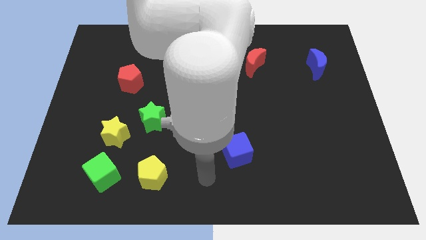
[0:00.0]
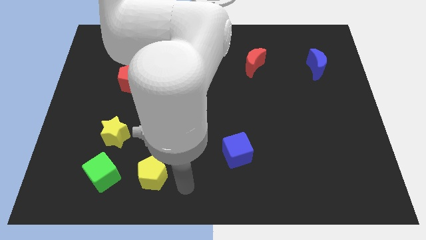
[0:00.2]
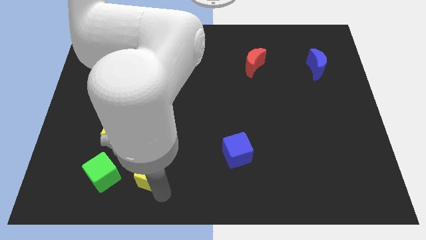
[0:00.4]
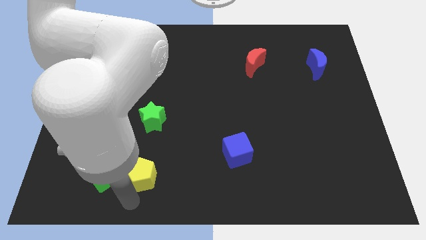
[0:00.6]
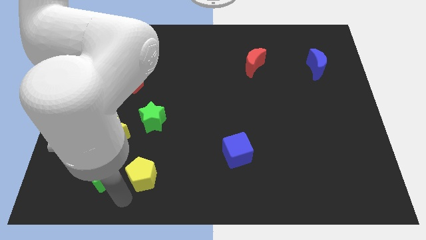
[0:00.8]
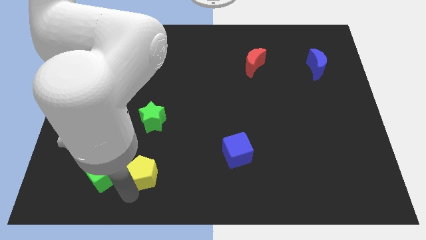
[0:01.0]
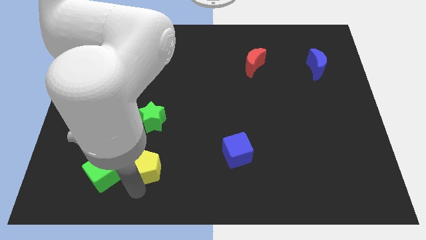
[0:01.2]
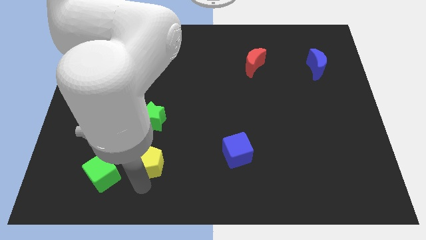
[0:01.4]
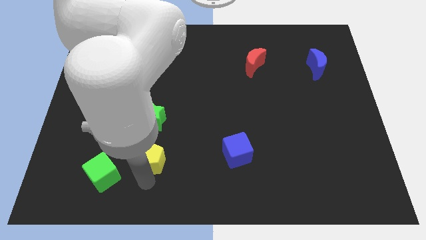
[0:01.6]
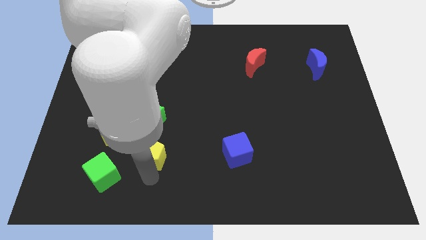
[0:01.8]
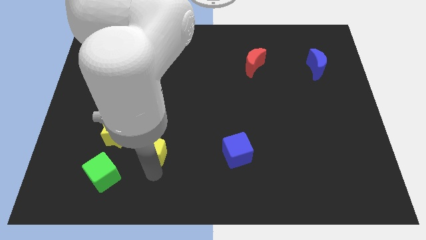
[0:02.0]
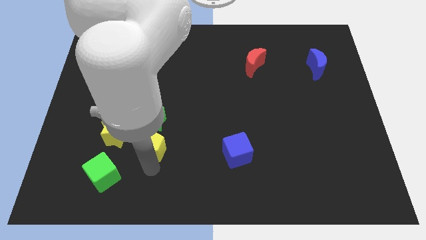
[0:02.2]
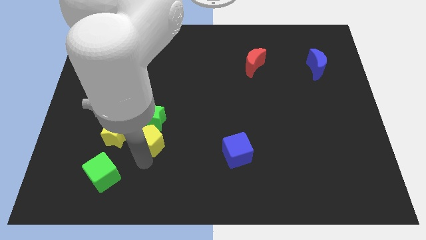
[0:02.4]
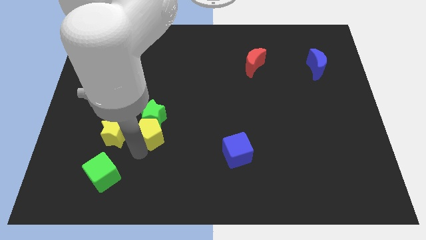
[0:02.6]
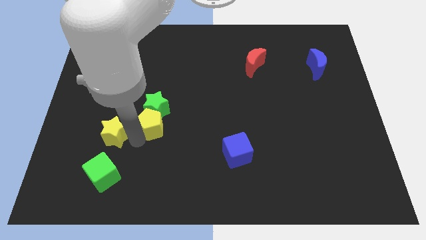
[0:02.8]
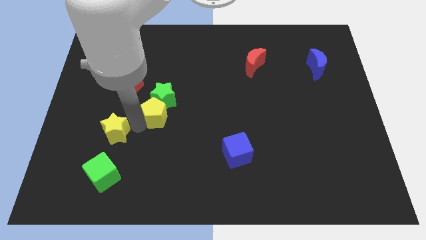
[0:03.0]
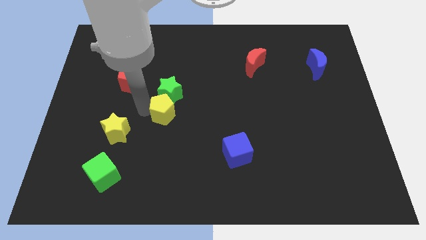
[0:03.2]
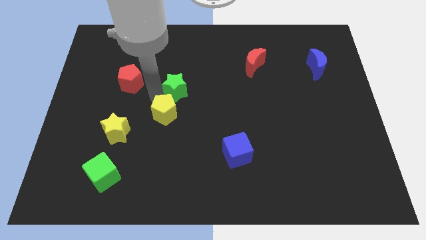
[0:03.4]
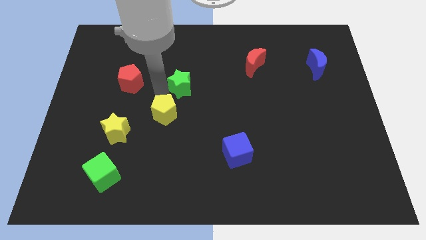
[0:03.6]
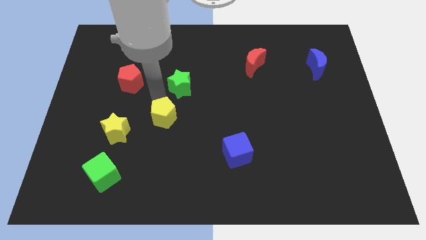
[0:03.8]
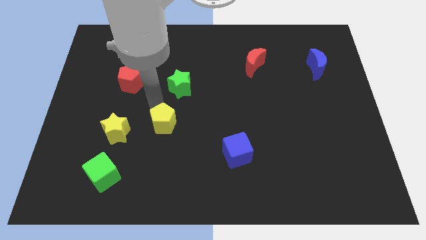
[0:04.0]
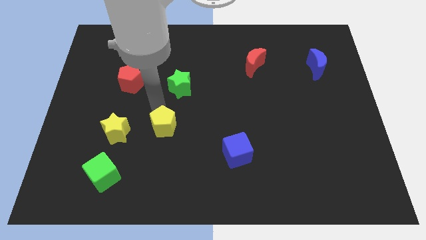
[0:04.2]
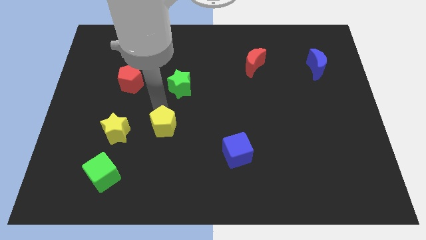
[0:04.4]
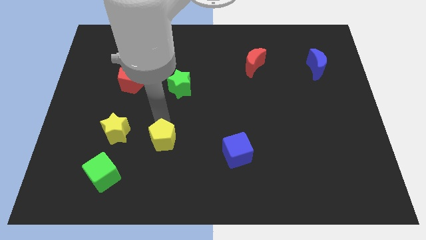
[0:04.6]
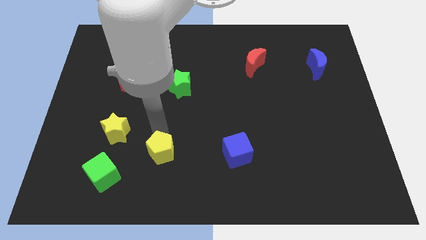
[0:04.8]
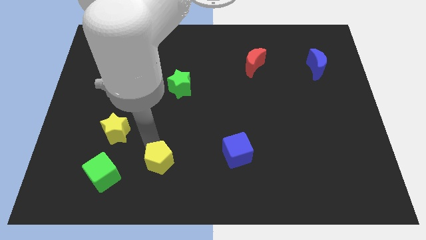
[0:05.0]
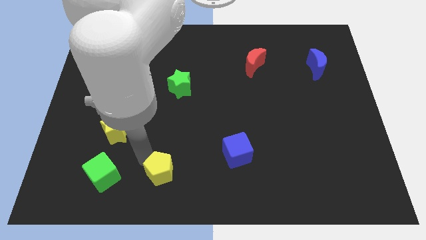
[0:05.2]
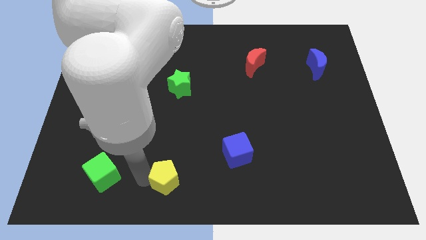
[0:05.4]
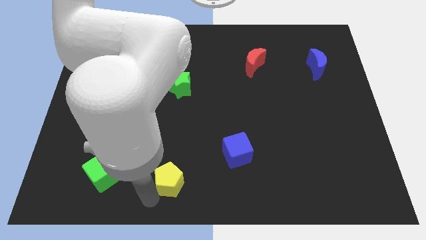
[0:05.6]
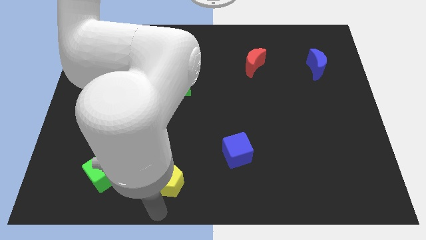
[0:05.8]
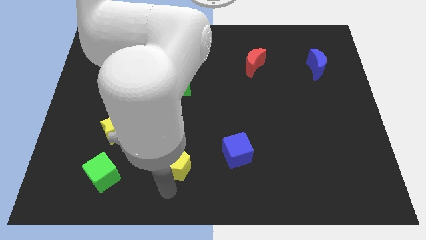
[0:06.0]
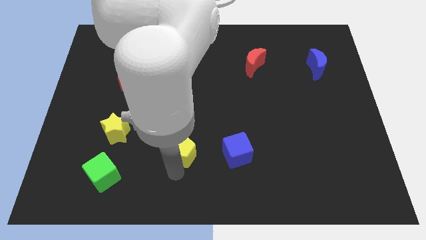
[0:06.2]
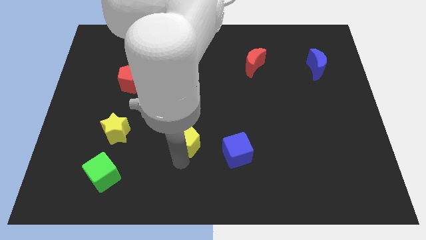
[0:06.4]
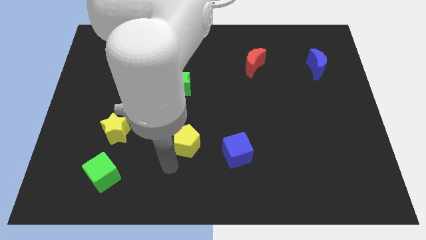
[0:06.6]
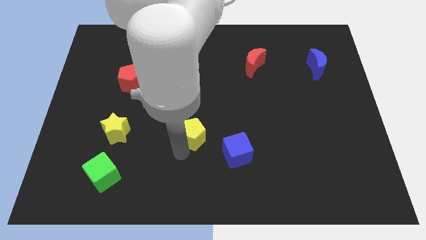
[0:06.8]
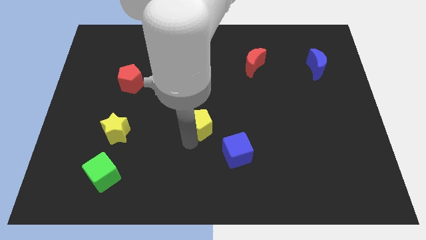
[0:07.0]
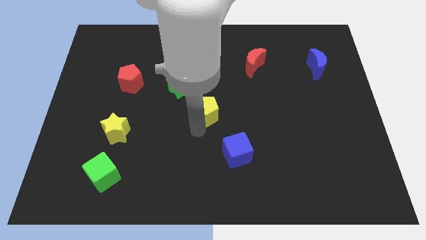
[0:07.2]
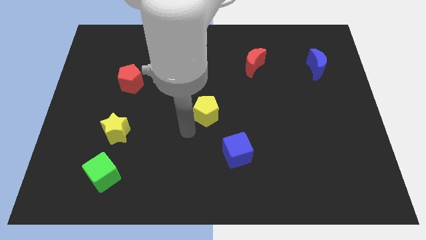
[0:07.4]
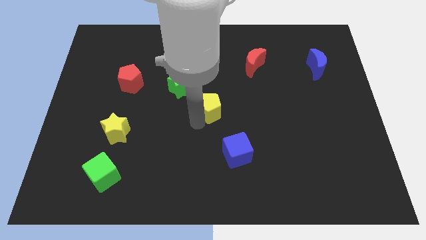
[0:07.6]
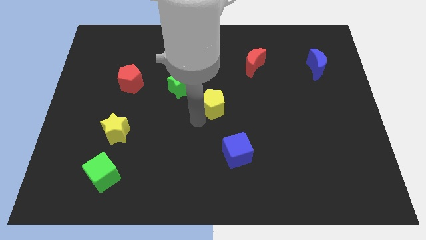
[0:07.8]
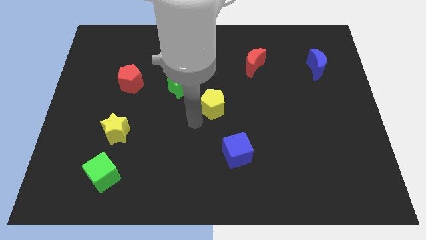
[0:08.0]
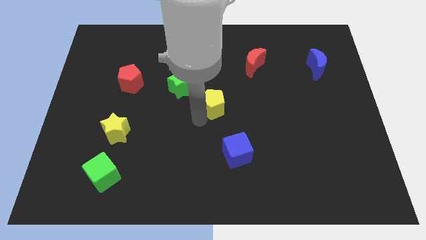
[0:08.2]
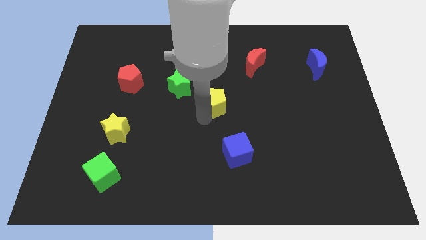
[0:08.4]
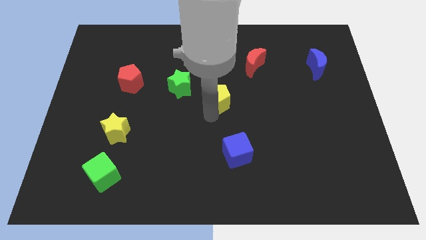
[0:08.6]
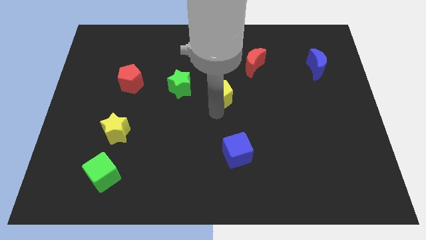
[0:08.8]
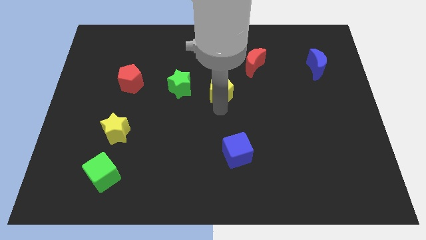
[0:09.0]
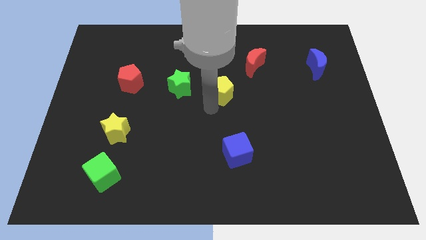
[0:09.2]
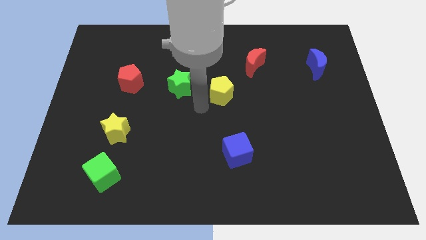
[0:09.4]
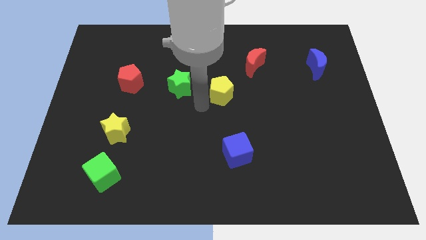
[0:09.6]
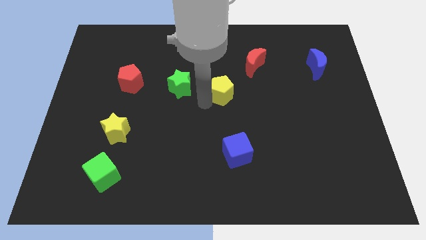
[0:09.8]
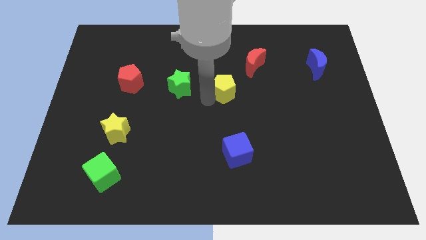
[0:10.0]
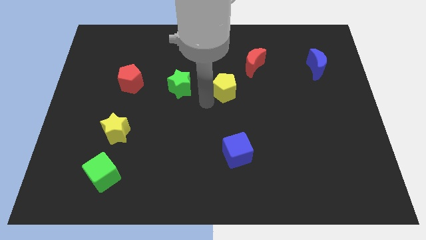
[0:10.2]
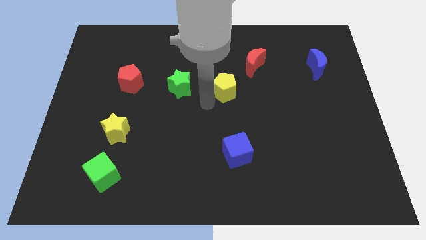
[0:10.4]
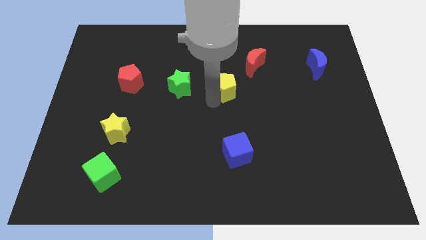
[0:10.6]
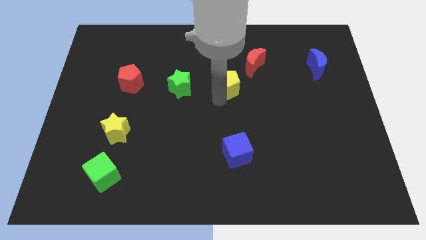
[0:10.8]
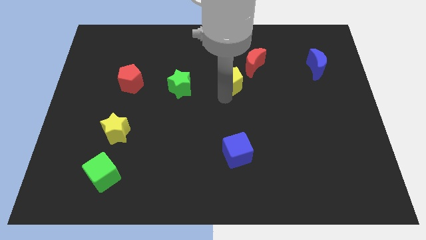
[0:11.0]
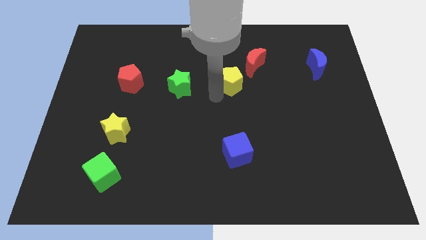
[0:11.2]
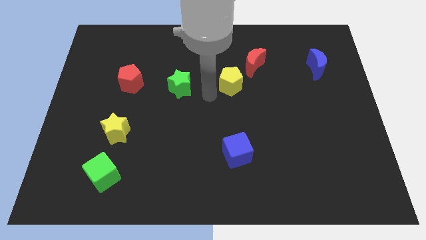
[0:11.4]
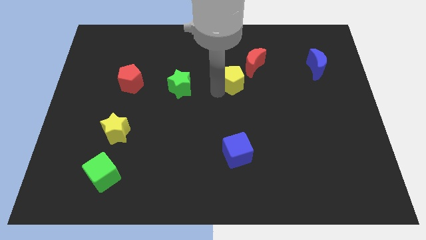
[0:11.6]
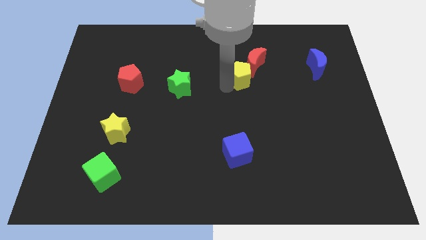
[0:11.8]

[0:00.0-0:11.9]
move the yellow pentagon towards the red moon

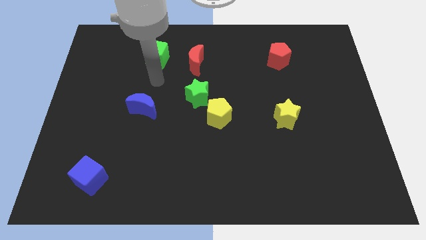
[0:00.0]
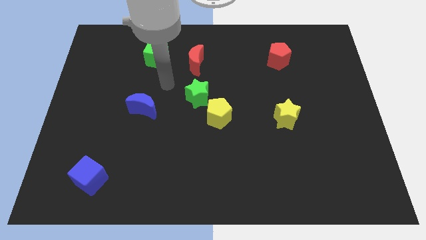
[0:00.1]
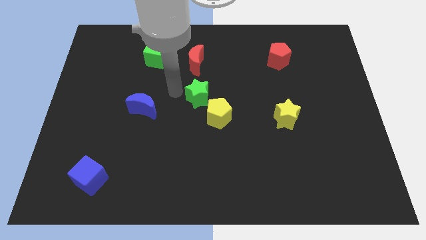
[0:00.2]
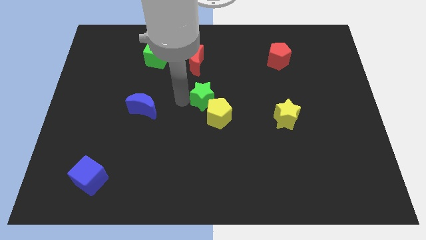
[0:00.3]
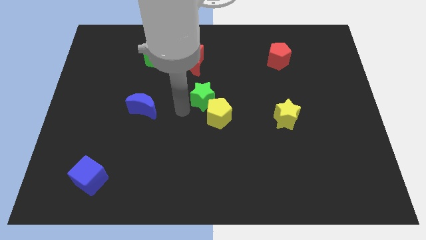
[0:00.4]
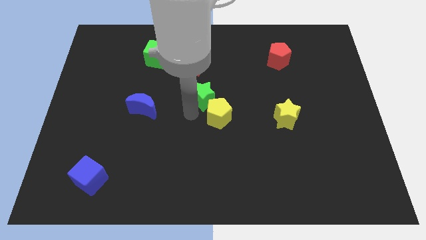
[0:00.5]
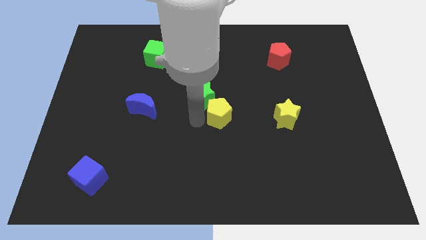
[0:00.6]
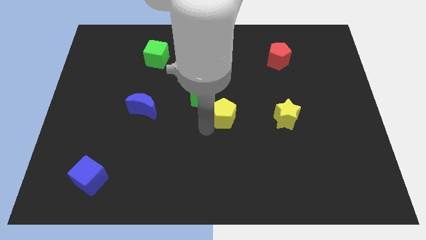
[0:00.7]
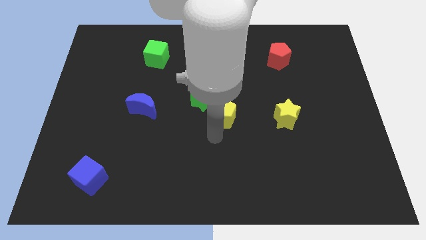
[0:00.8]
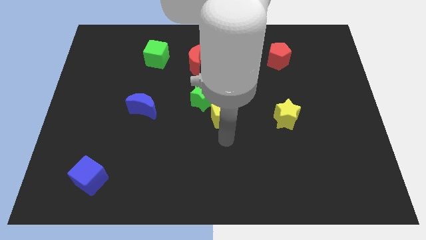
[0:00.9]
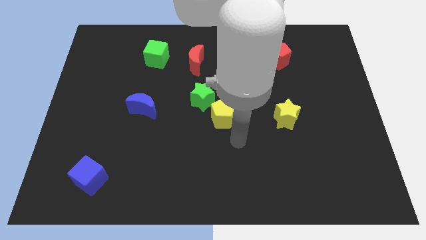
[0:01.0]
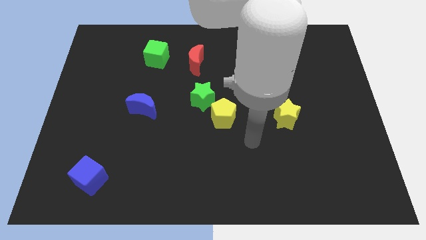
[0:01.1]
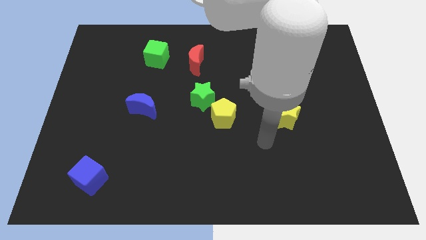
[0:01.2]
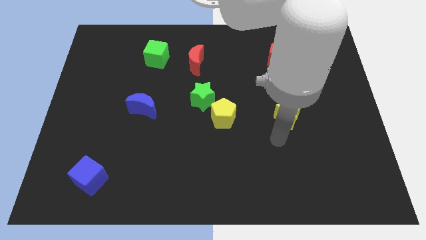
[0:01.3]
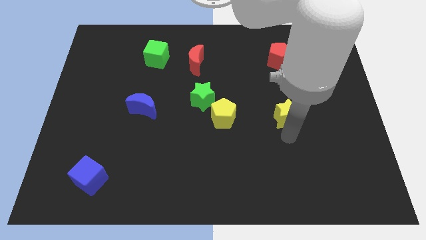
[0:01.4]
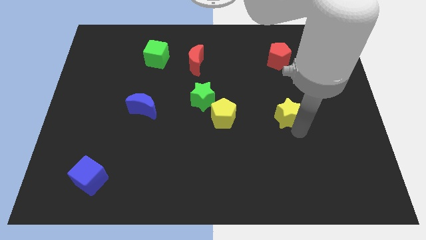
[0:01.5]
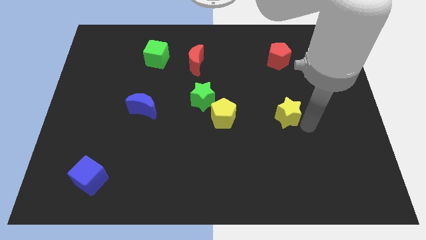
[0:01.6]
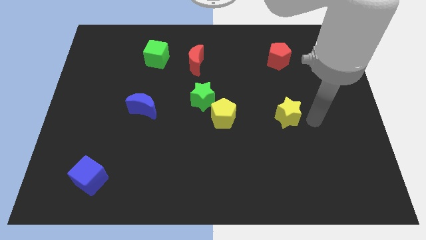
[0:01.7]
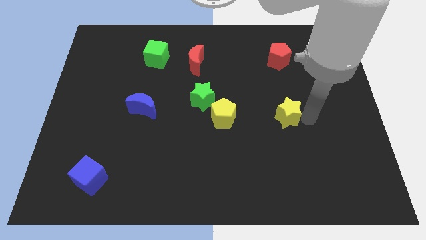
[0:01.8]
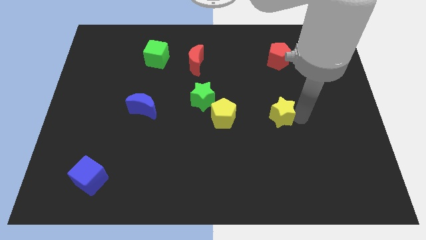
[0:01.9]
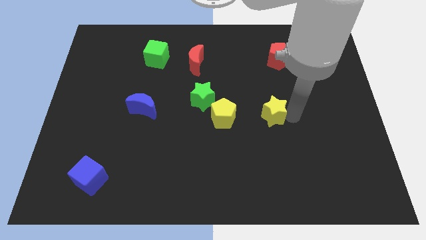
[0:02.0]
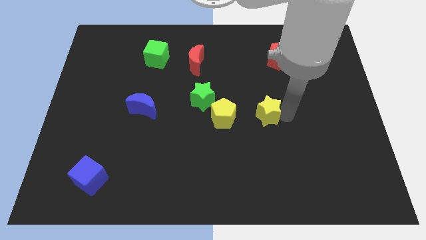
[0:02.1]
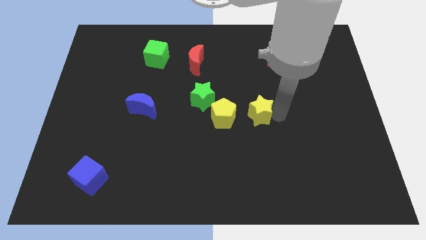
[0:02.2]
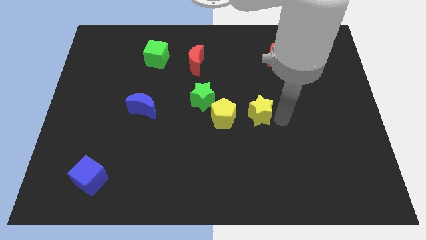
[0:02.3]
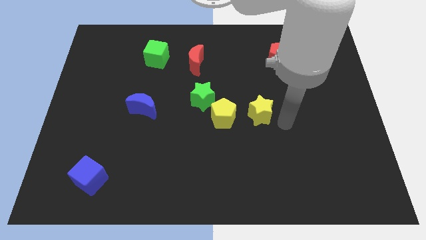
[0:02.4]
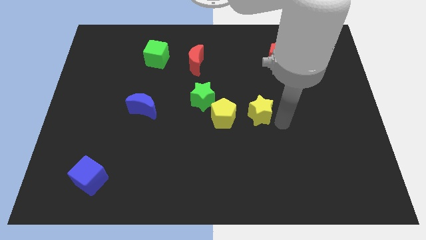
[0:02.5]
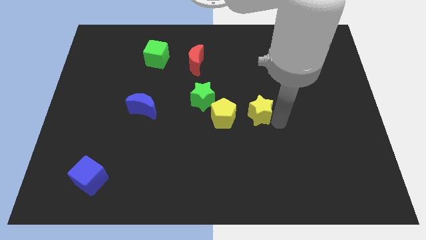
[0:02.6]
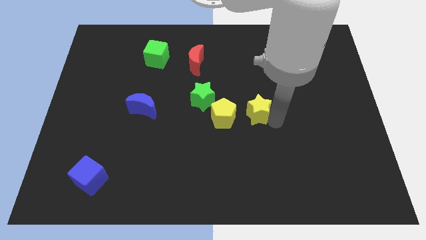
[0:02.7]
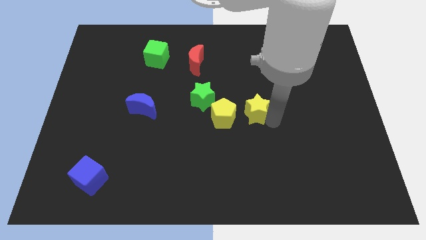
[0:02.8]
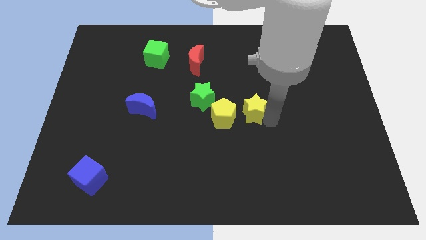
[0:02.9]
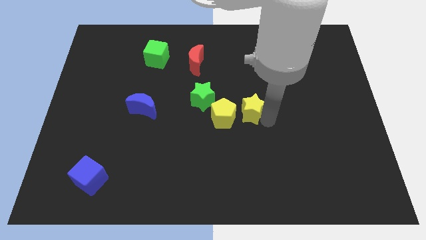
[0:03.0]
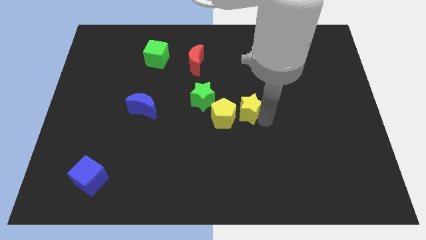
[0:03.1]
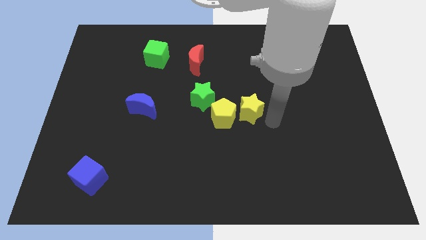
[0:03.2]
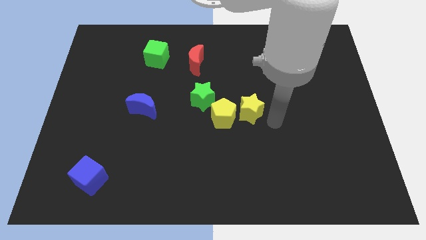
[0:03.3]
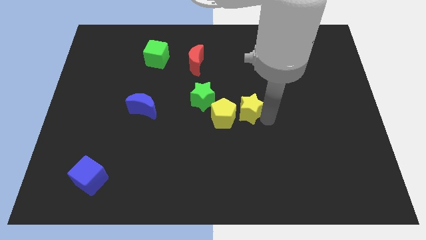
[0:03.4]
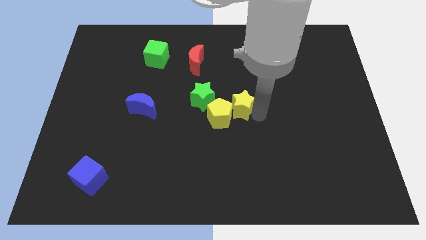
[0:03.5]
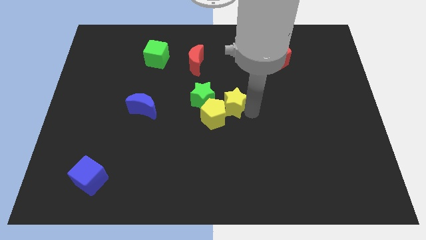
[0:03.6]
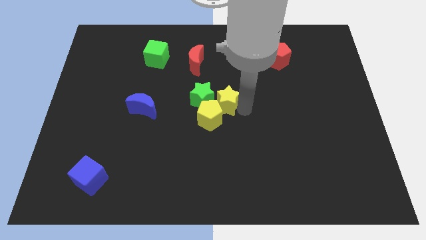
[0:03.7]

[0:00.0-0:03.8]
push the yellow star towards the green star
